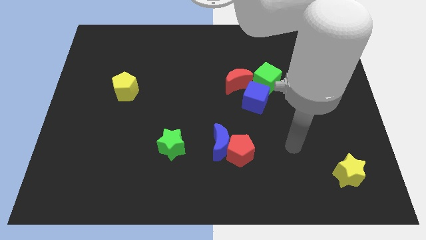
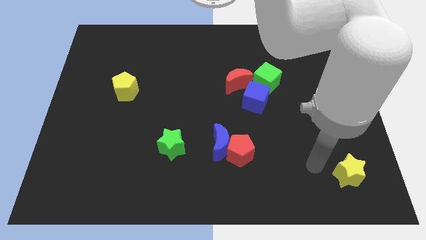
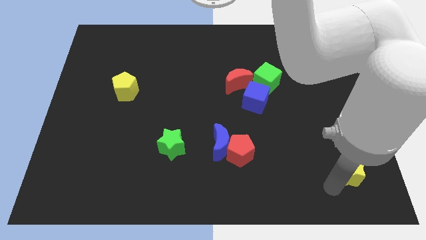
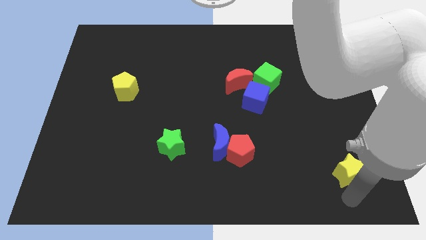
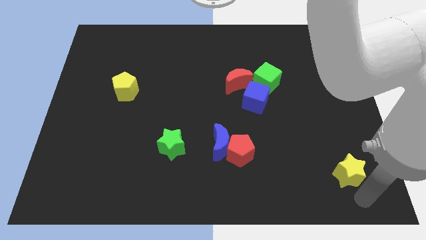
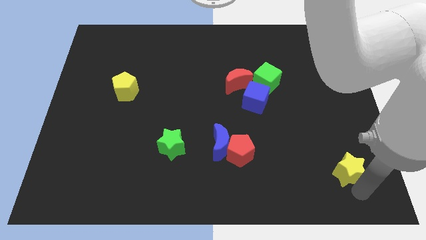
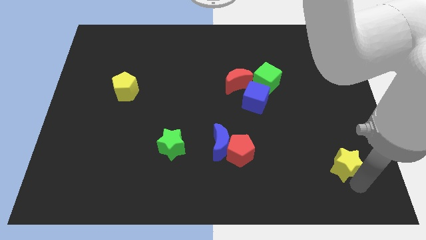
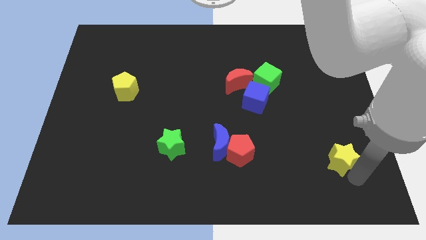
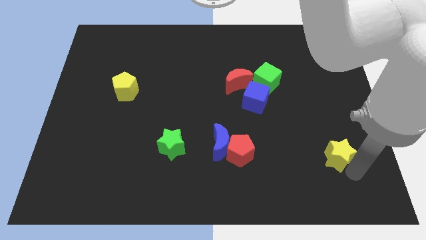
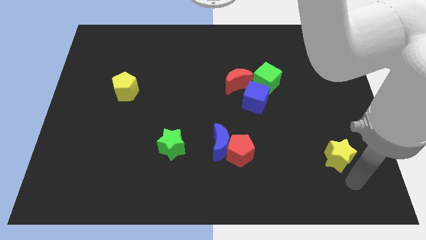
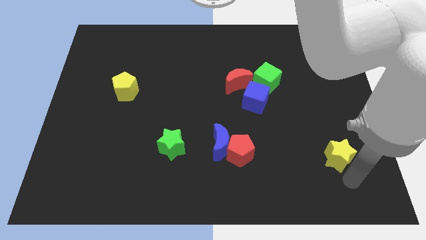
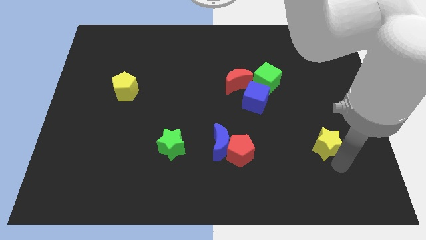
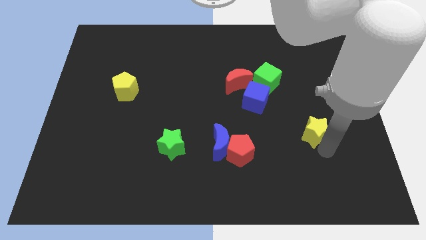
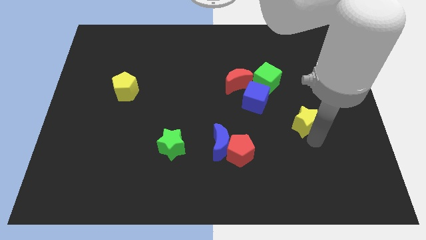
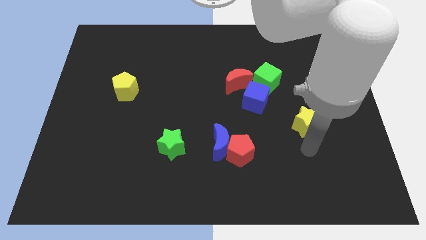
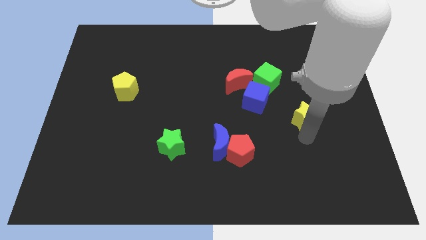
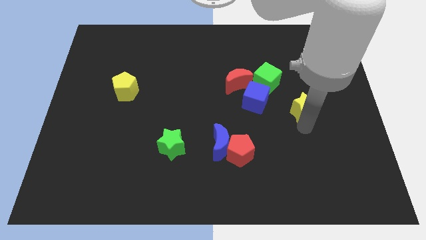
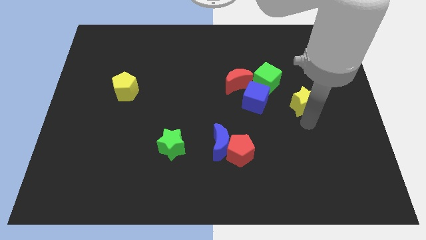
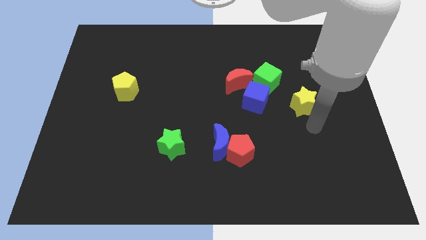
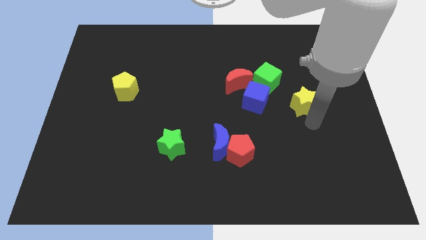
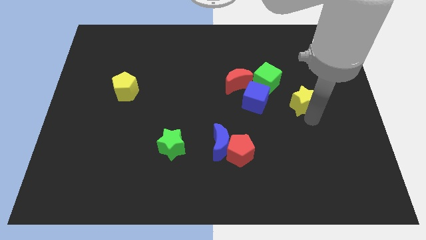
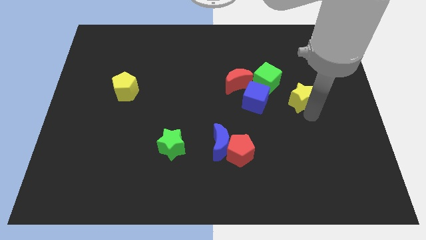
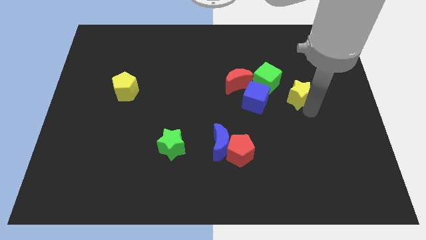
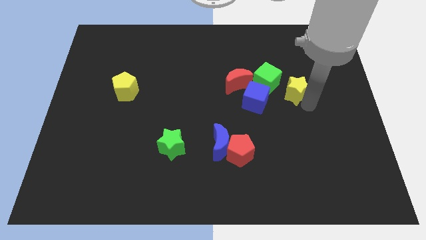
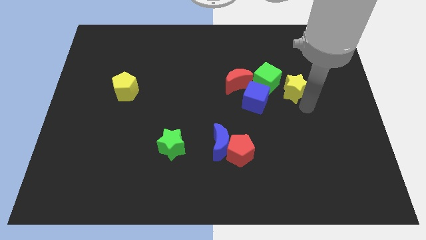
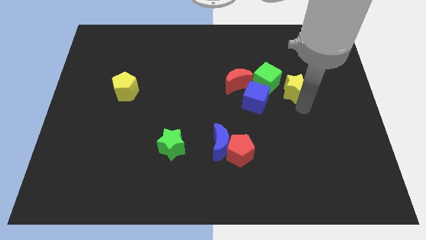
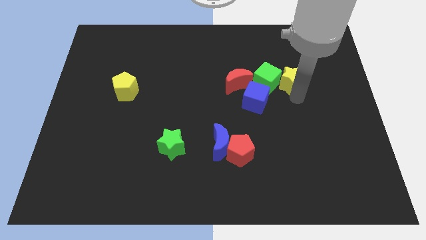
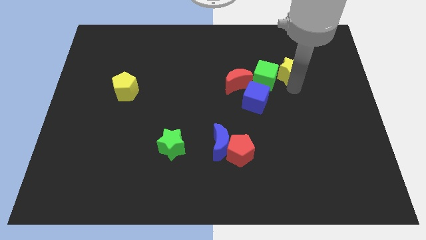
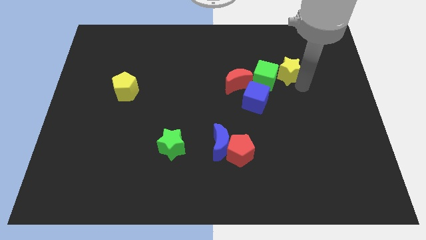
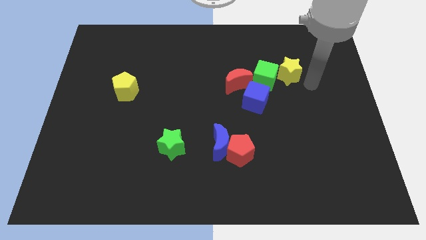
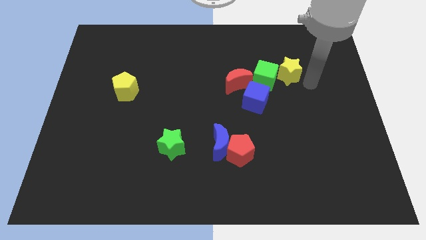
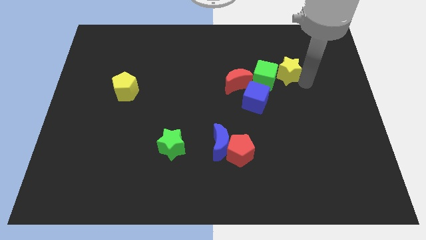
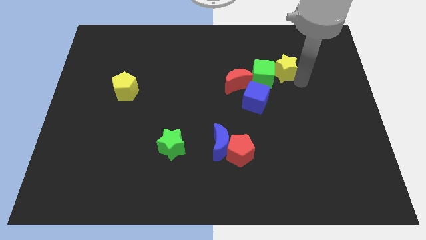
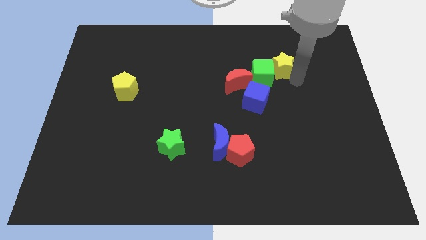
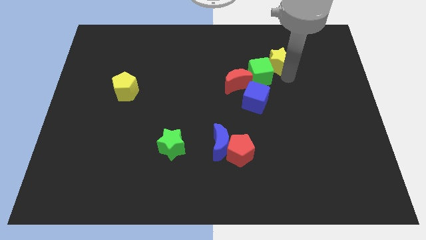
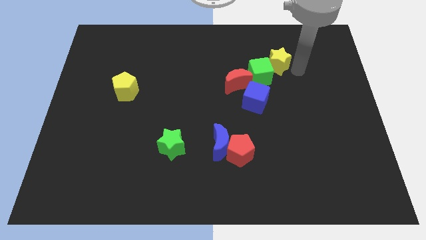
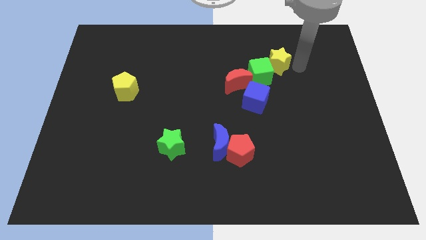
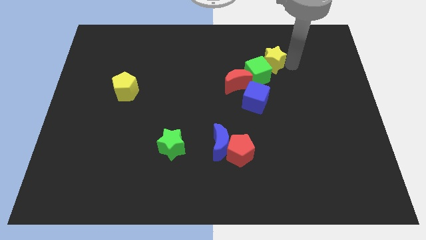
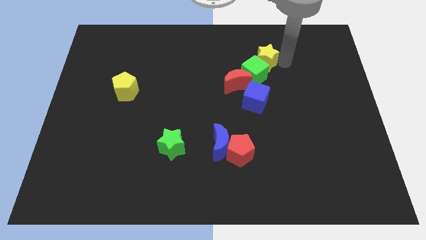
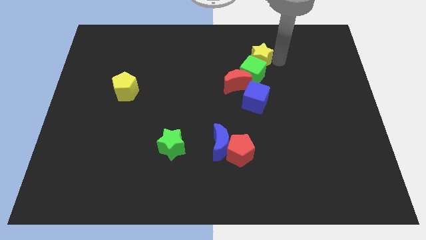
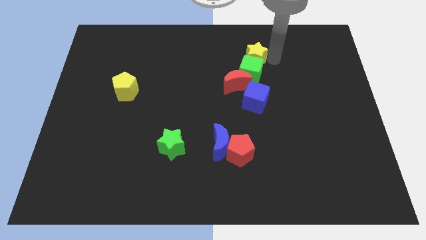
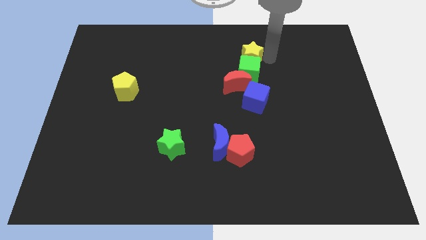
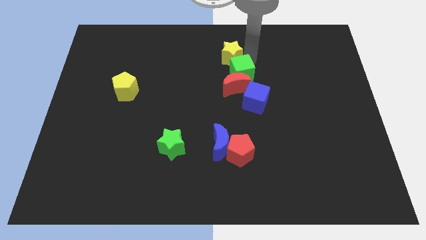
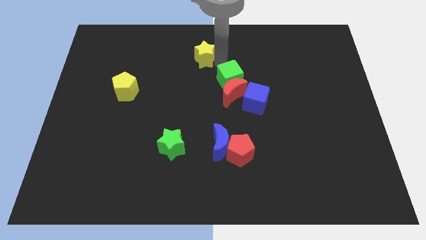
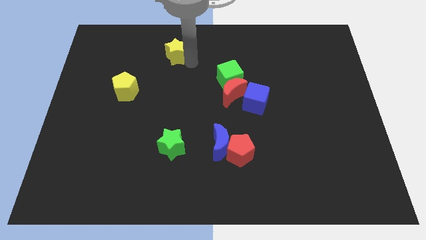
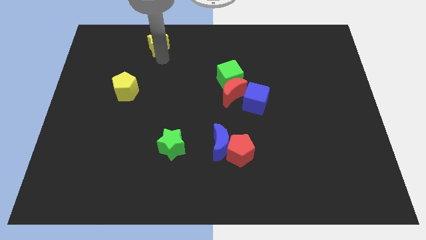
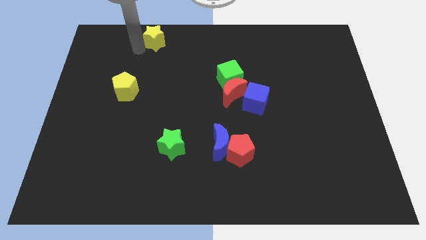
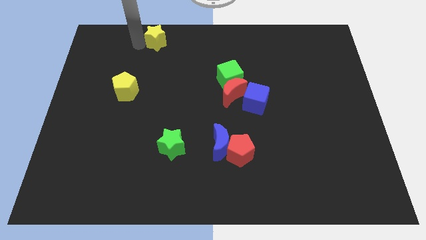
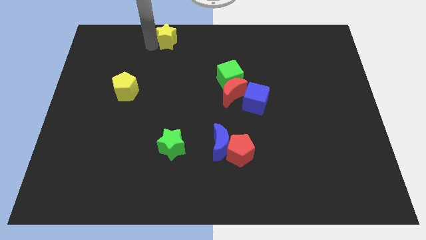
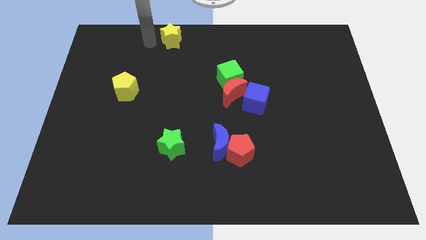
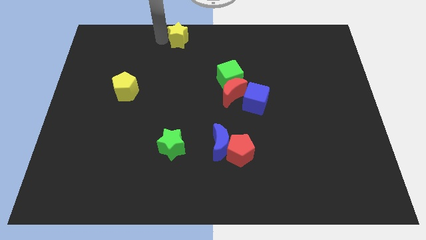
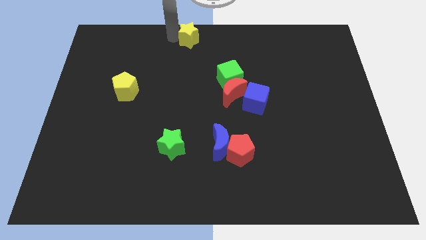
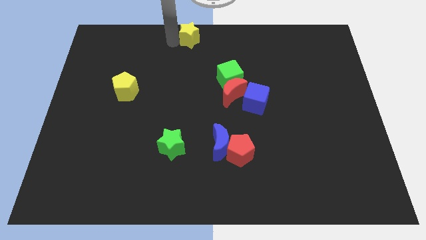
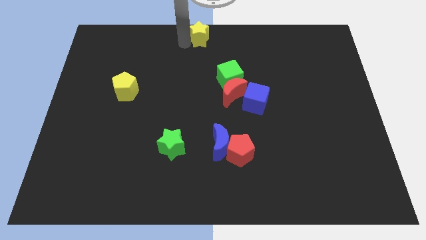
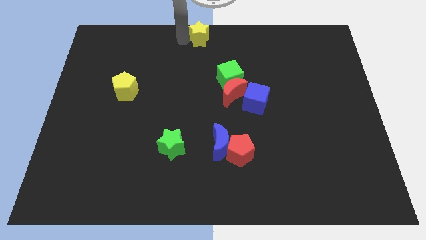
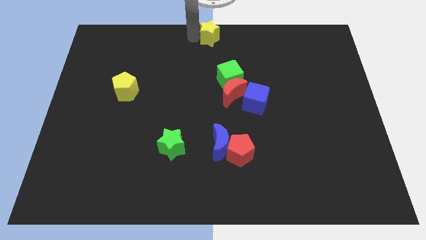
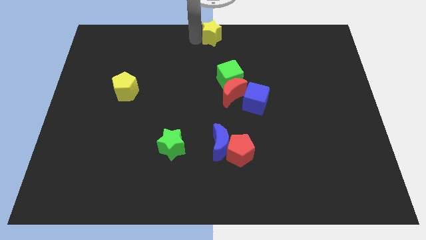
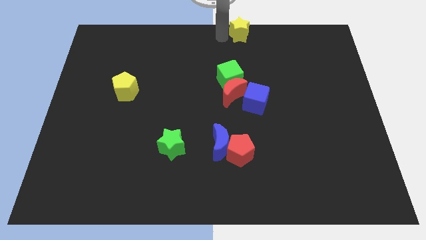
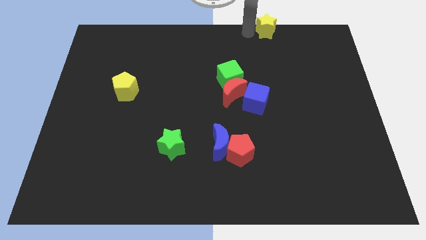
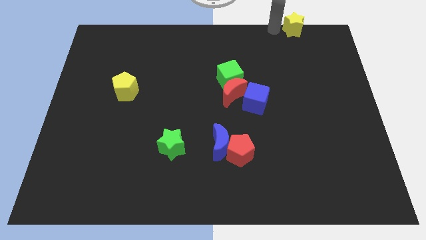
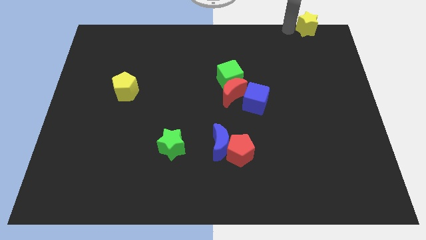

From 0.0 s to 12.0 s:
move the yellow star to the top right

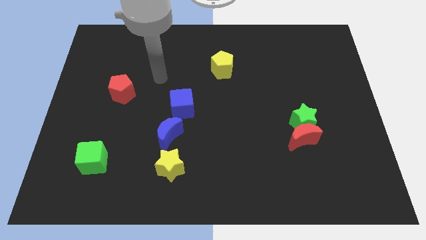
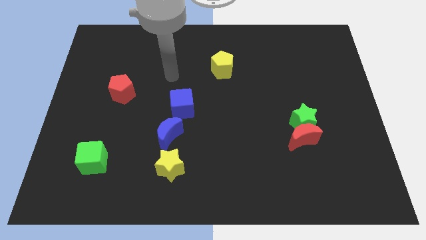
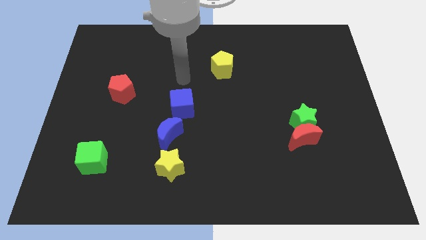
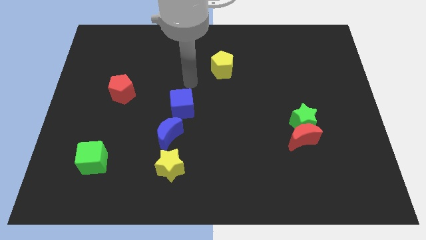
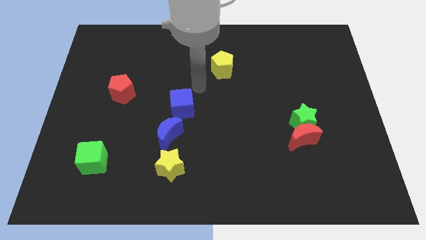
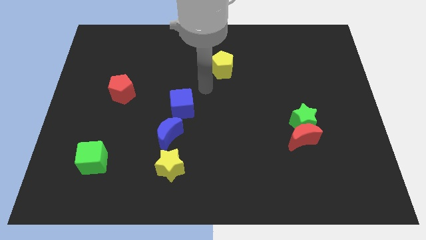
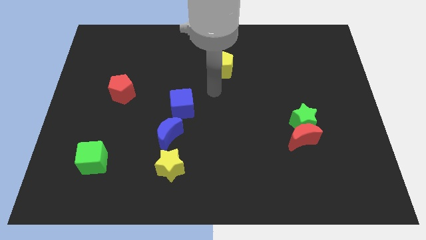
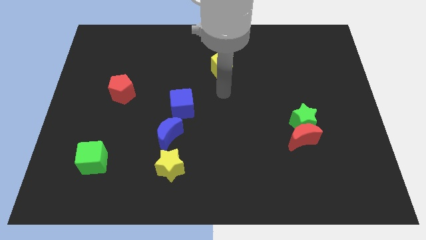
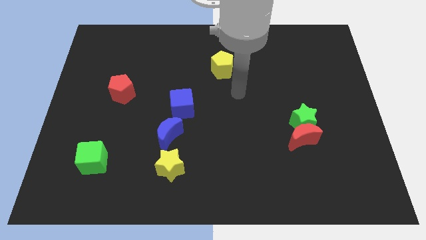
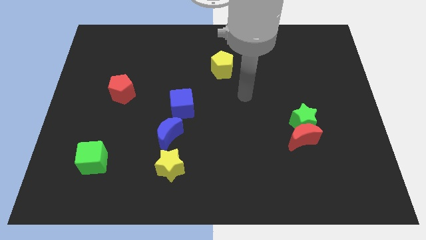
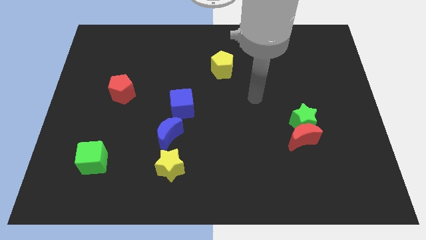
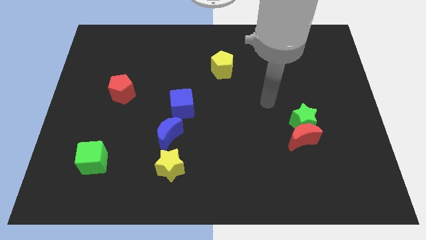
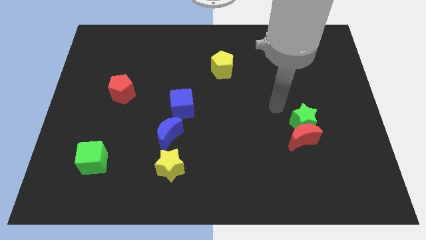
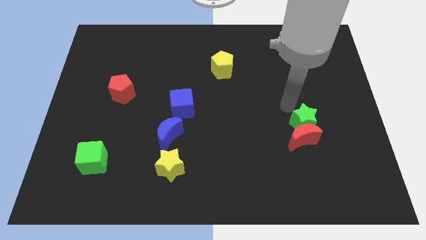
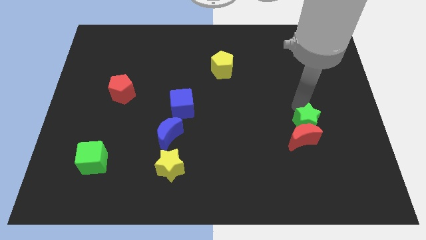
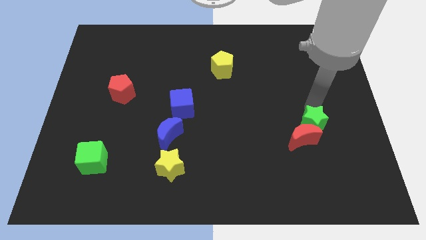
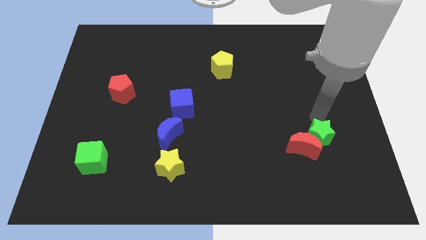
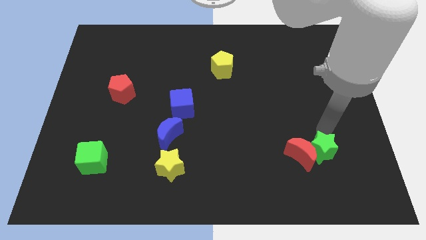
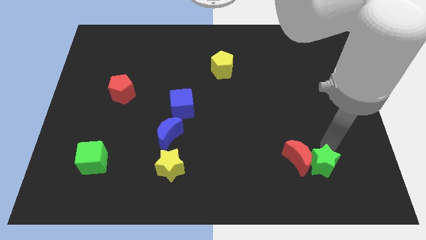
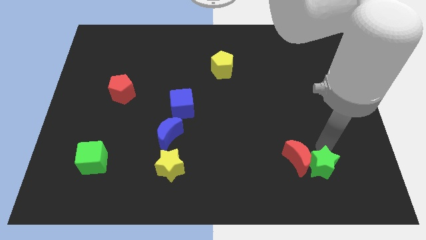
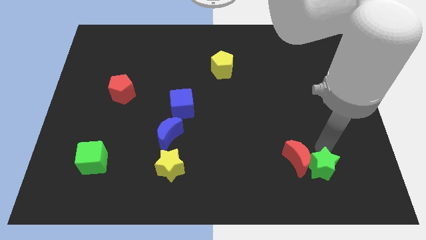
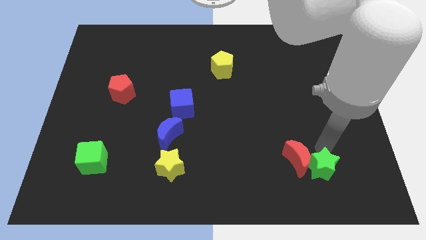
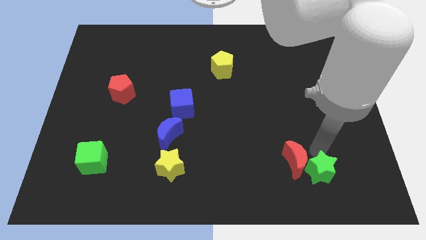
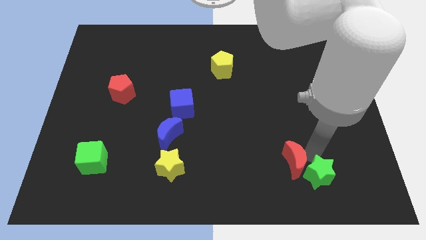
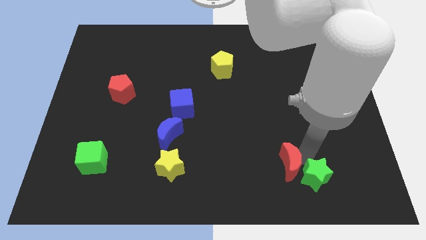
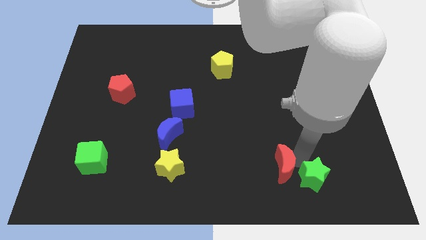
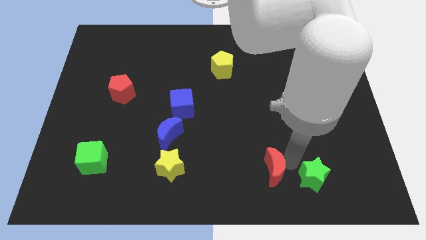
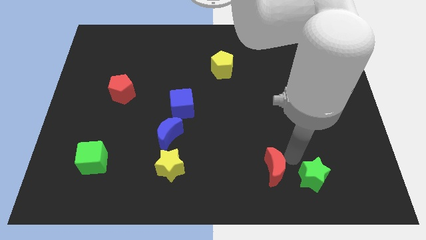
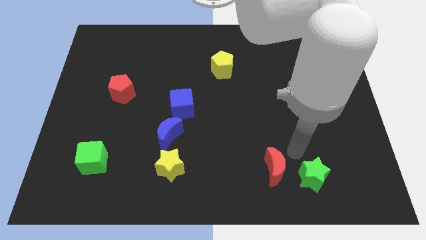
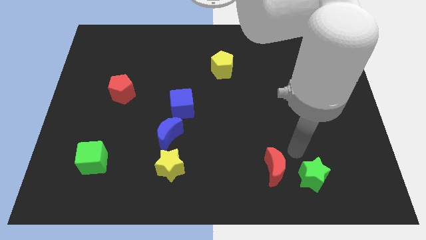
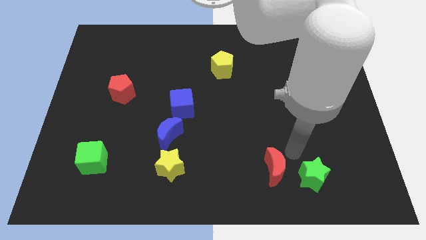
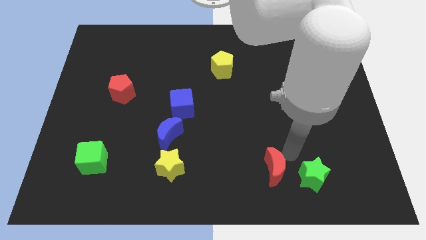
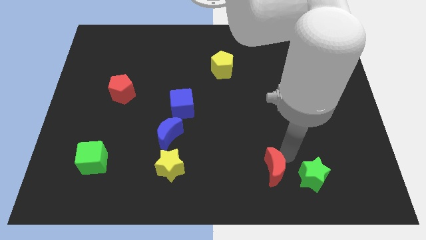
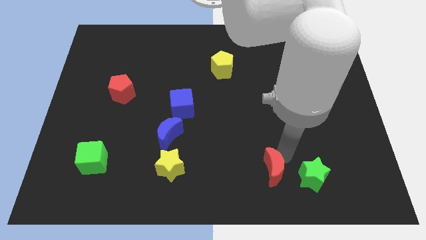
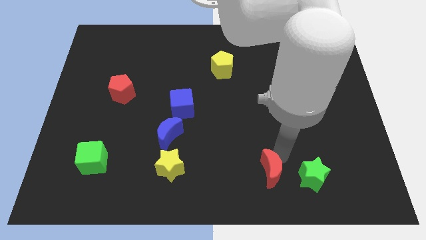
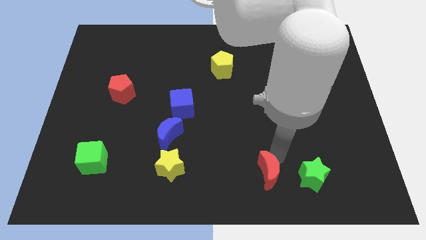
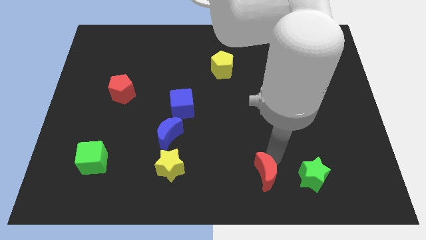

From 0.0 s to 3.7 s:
move the red moon to the bottom side
